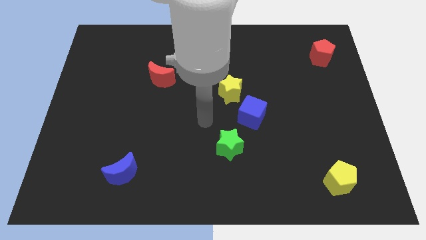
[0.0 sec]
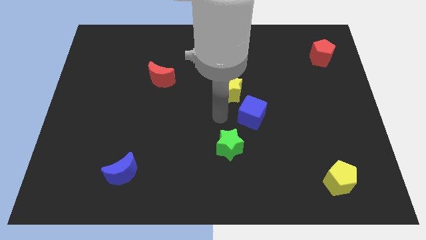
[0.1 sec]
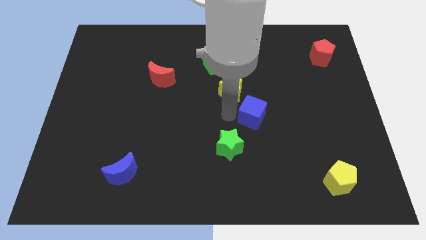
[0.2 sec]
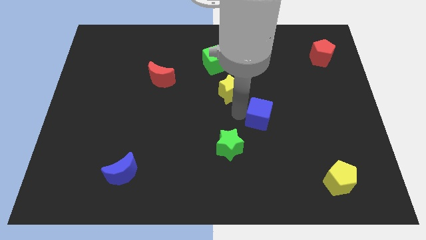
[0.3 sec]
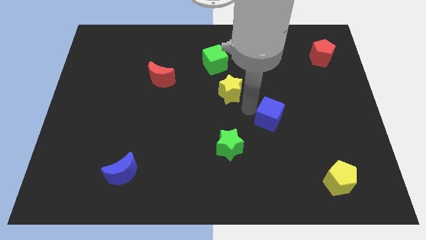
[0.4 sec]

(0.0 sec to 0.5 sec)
move the yellow star away from the blue cube

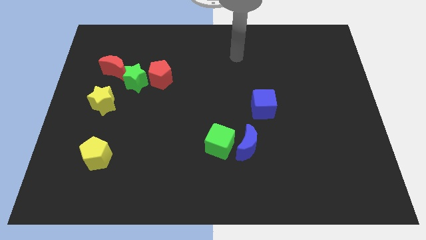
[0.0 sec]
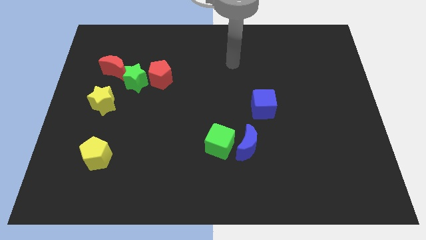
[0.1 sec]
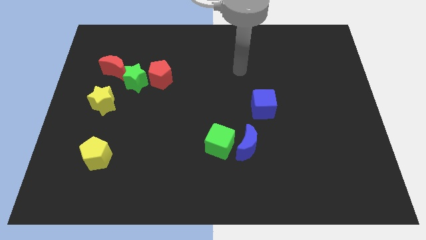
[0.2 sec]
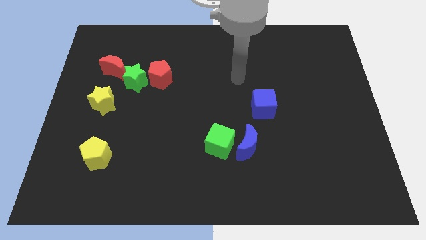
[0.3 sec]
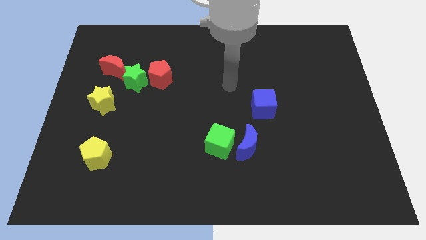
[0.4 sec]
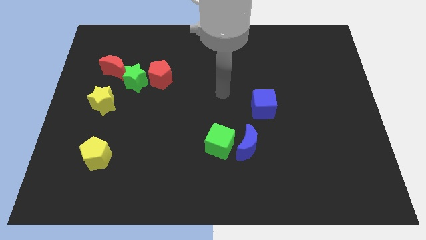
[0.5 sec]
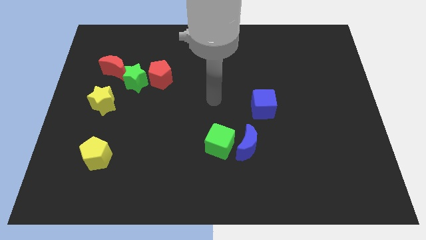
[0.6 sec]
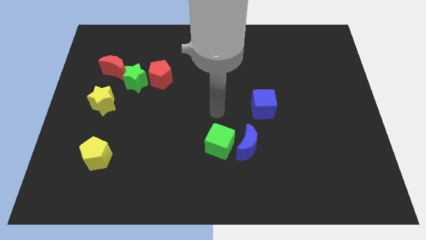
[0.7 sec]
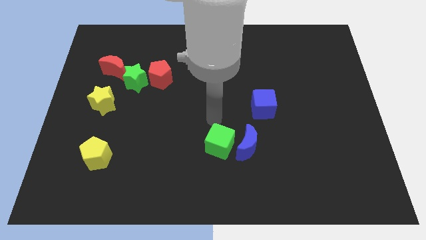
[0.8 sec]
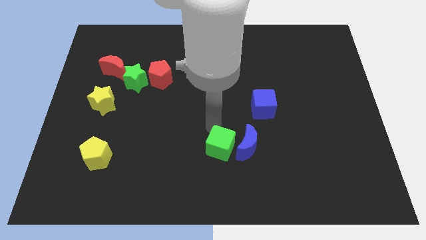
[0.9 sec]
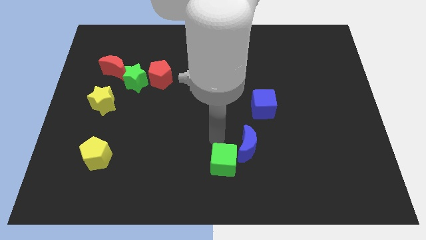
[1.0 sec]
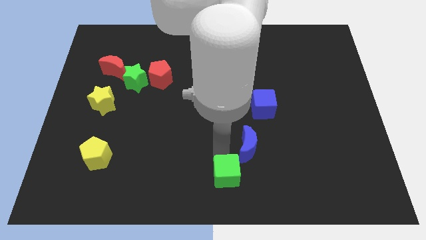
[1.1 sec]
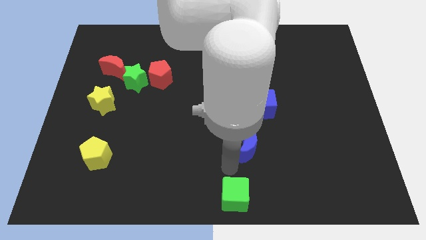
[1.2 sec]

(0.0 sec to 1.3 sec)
separate the blue moon from the green cube

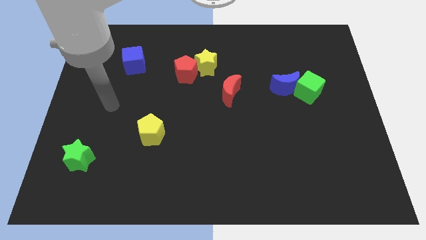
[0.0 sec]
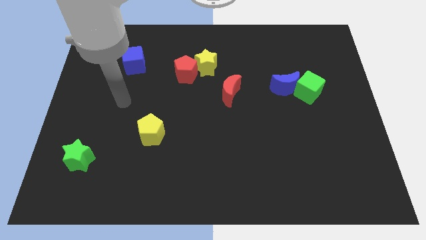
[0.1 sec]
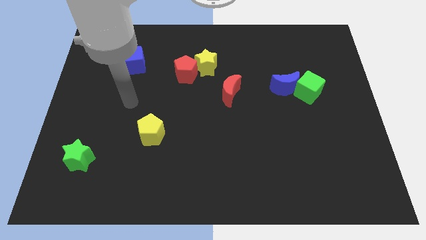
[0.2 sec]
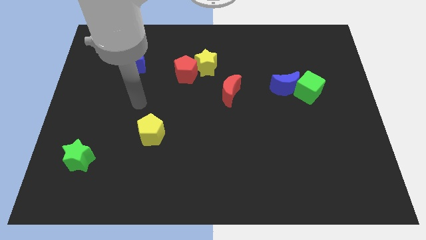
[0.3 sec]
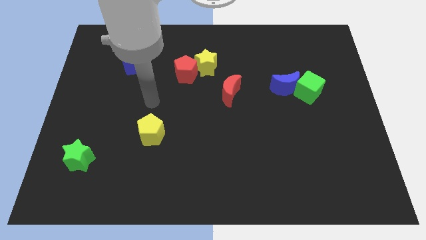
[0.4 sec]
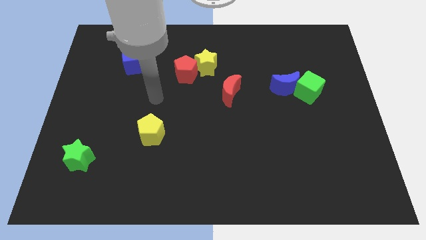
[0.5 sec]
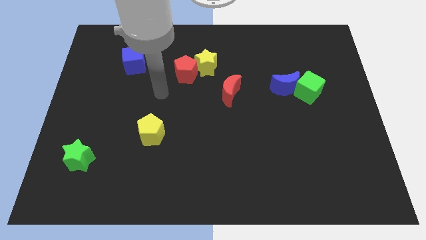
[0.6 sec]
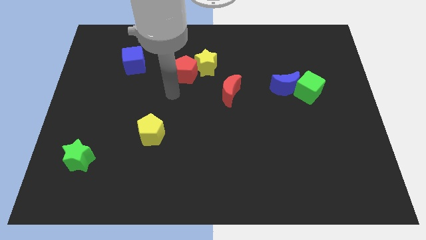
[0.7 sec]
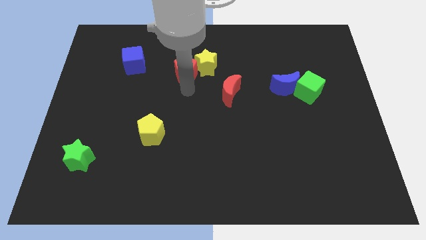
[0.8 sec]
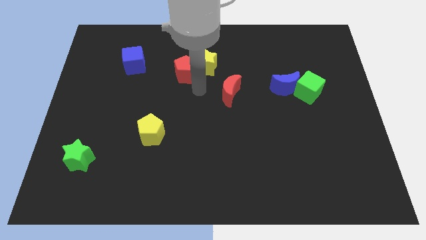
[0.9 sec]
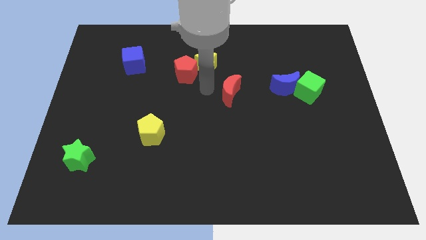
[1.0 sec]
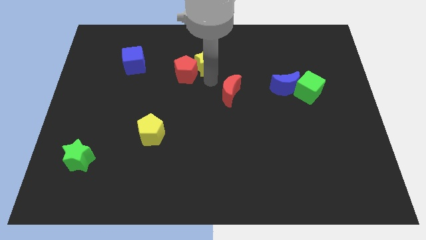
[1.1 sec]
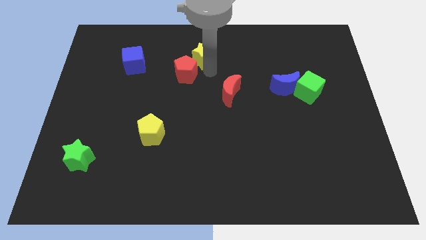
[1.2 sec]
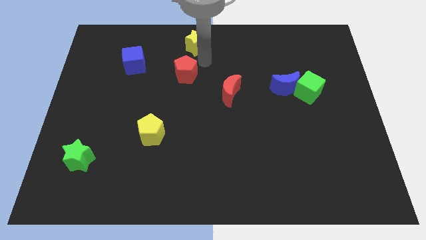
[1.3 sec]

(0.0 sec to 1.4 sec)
pull the red pentagon apart from the yellow star

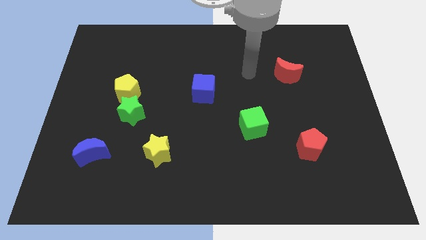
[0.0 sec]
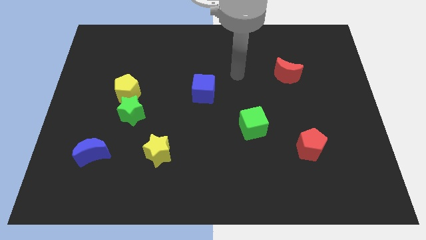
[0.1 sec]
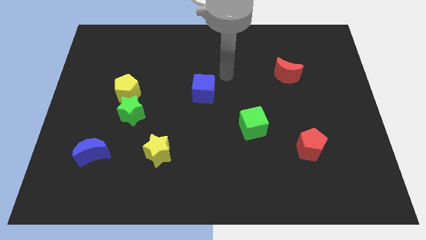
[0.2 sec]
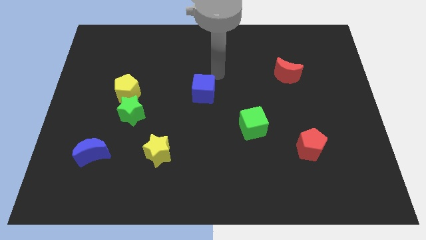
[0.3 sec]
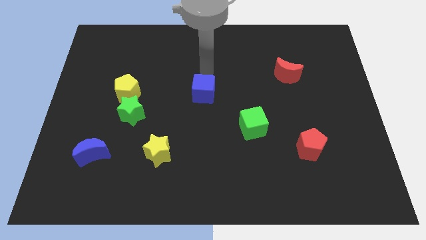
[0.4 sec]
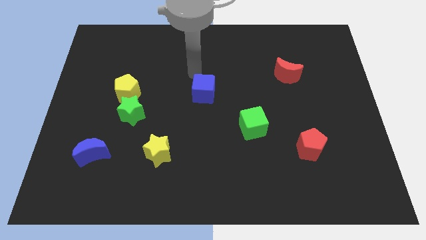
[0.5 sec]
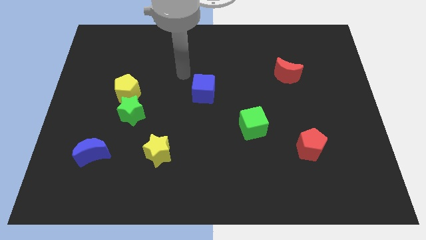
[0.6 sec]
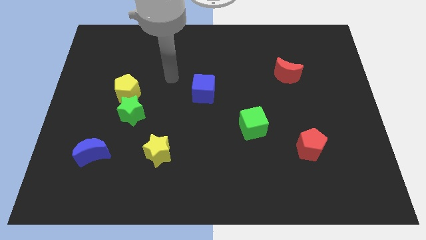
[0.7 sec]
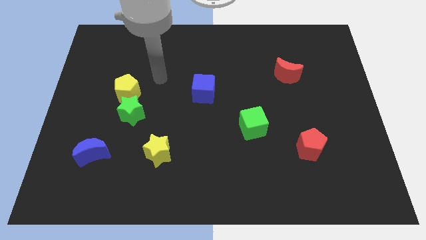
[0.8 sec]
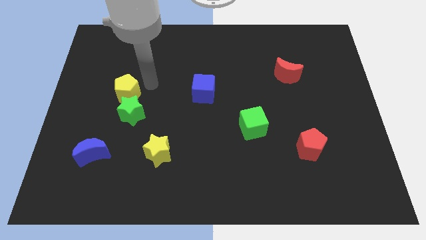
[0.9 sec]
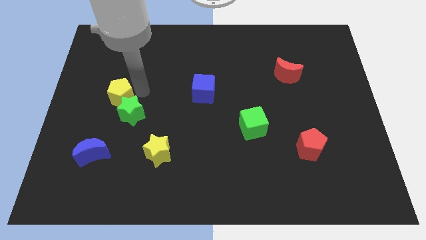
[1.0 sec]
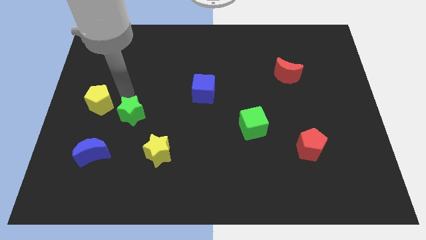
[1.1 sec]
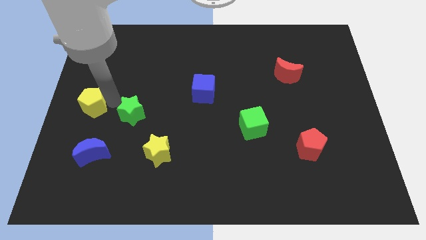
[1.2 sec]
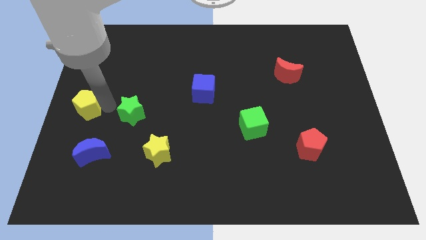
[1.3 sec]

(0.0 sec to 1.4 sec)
pull the green star apart from the yellow pentagon

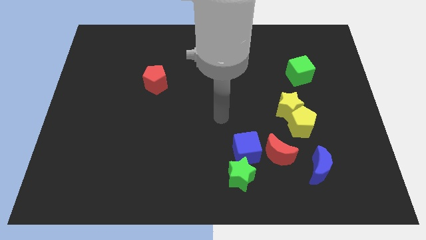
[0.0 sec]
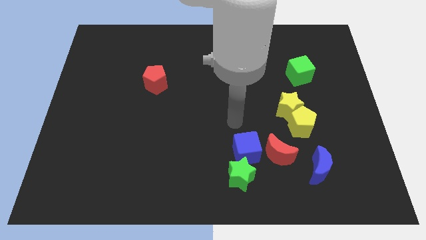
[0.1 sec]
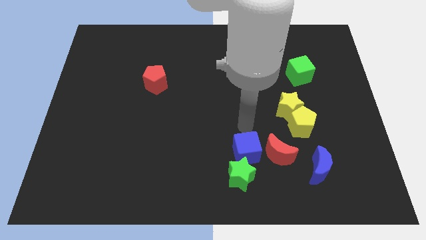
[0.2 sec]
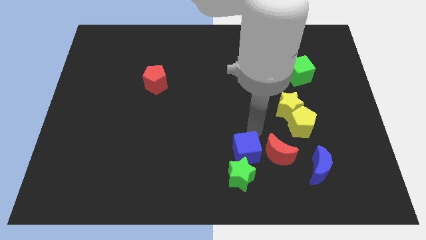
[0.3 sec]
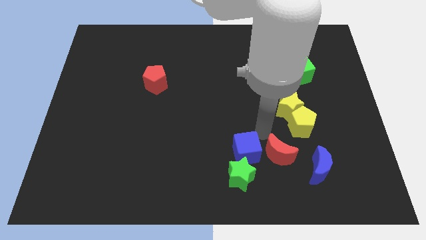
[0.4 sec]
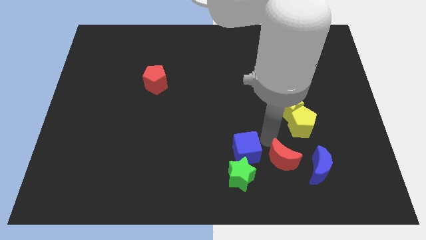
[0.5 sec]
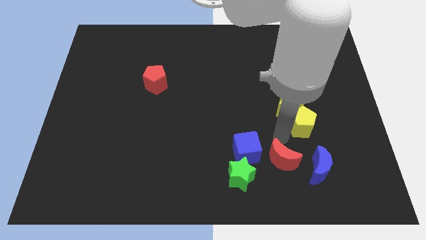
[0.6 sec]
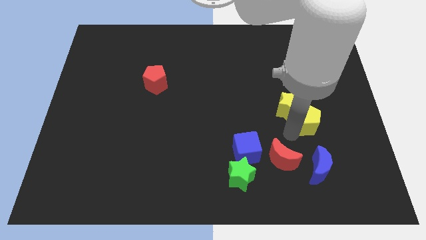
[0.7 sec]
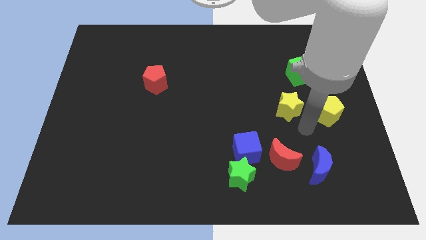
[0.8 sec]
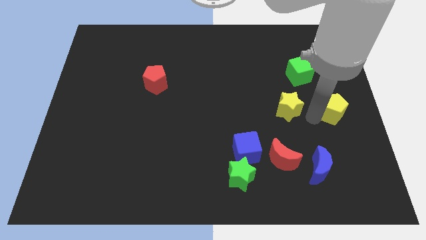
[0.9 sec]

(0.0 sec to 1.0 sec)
separate the yellow star from the yellow pentagon

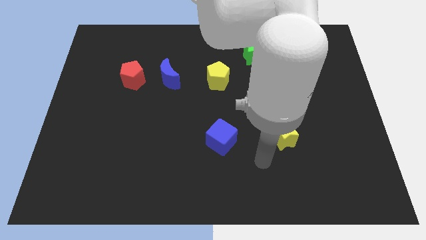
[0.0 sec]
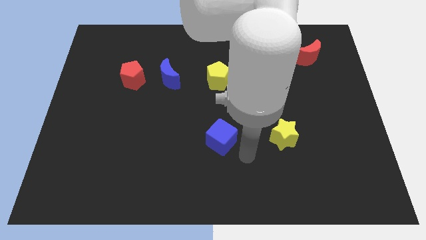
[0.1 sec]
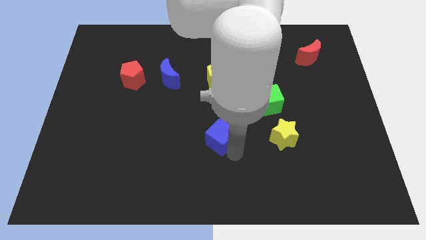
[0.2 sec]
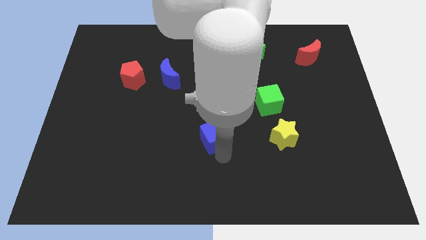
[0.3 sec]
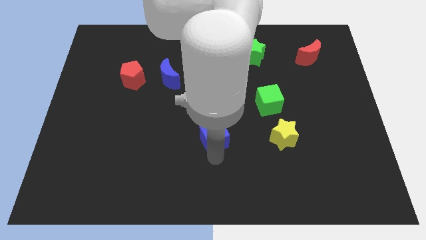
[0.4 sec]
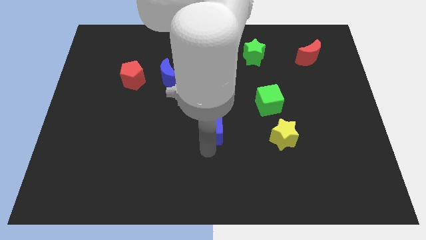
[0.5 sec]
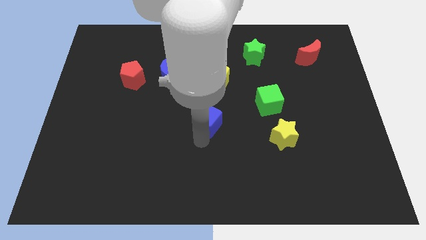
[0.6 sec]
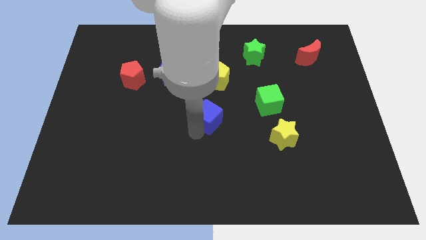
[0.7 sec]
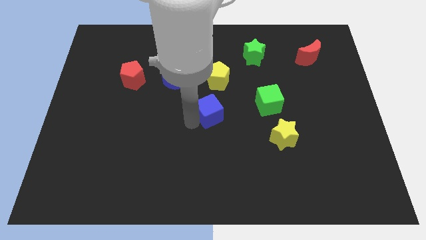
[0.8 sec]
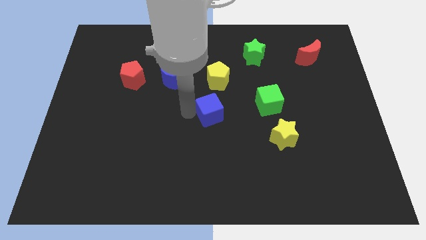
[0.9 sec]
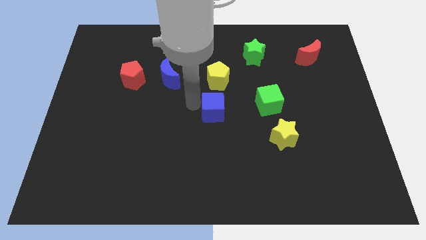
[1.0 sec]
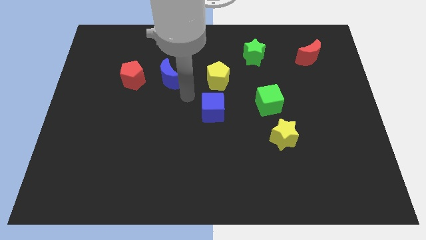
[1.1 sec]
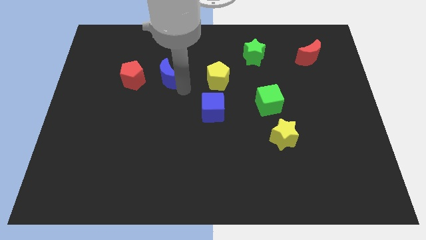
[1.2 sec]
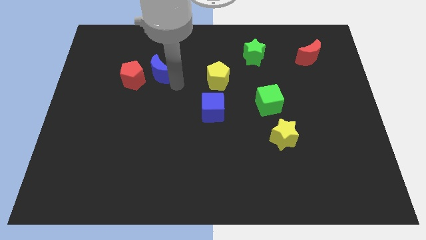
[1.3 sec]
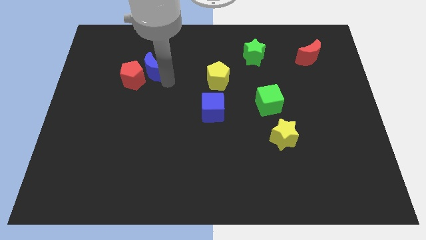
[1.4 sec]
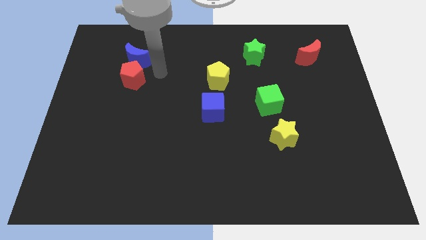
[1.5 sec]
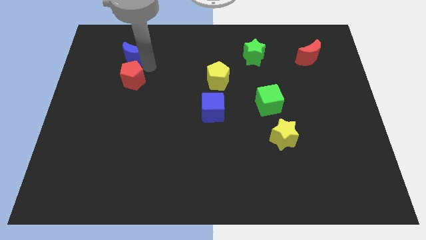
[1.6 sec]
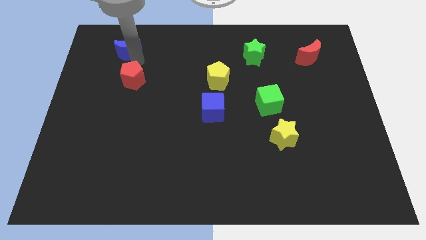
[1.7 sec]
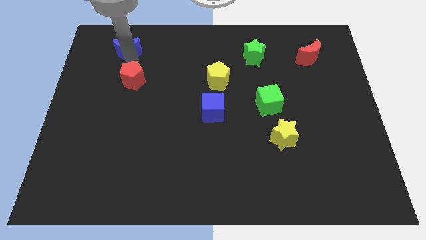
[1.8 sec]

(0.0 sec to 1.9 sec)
separate the red pentagon from the blue moon

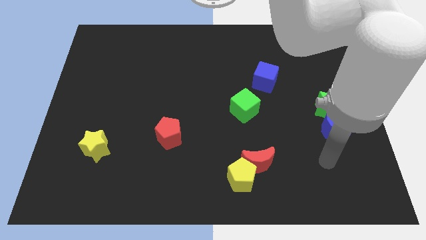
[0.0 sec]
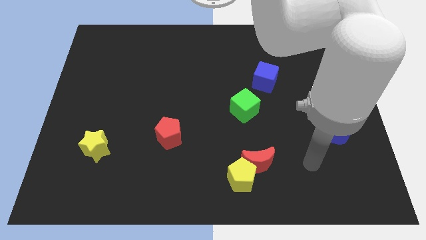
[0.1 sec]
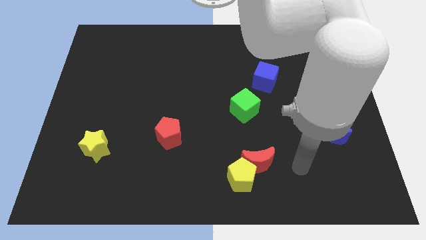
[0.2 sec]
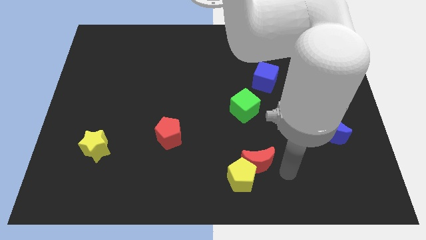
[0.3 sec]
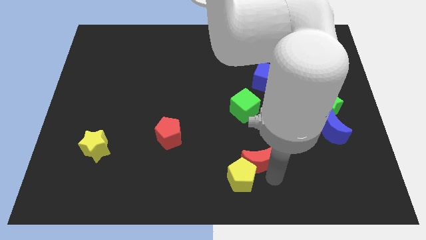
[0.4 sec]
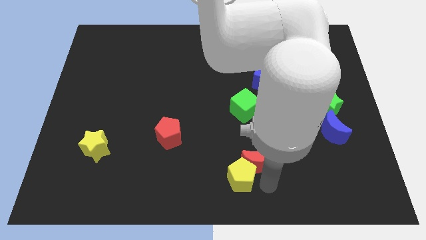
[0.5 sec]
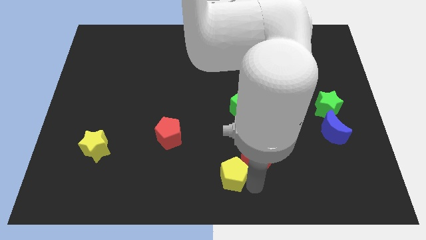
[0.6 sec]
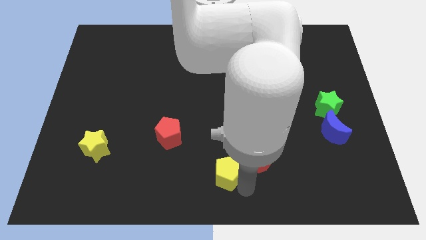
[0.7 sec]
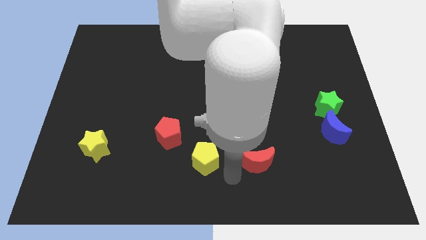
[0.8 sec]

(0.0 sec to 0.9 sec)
move the red moon away from the yellow pentagon

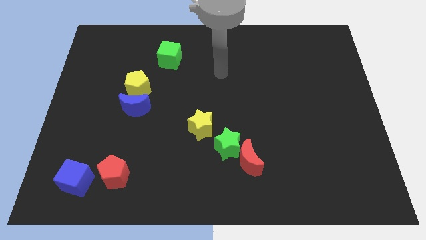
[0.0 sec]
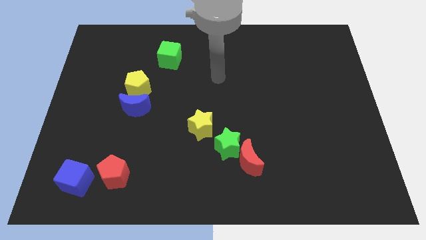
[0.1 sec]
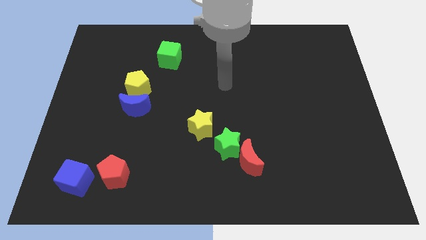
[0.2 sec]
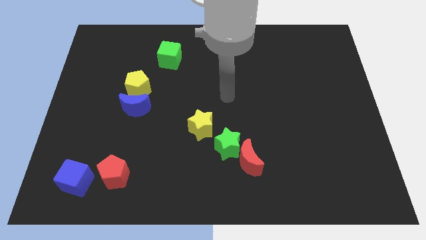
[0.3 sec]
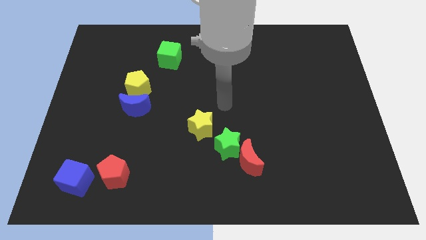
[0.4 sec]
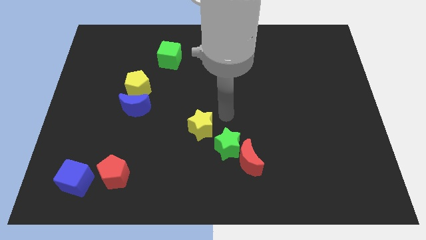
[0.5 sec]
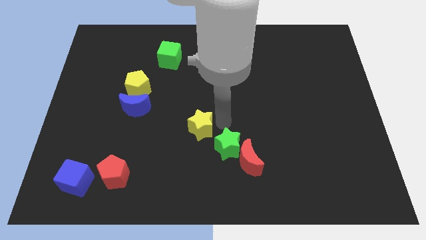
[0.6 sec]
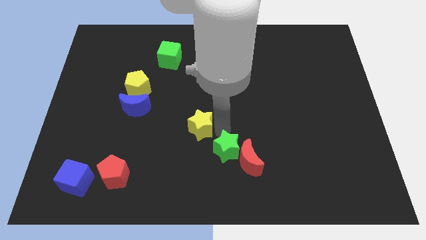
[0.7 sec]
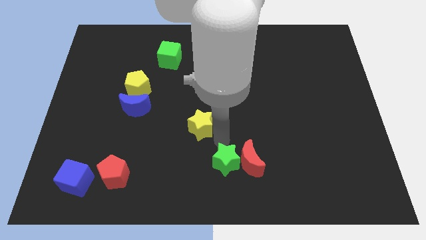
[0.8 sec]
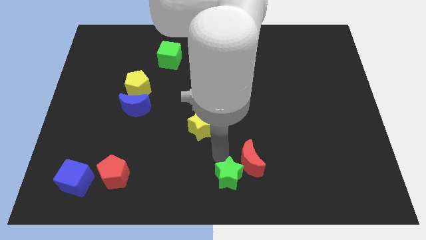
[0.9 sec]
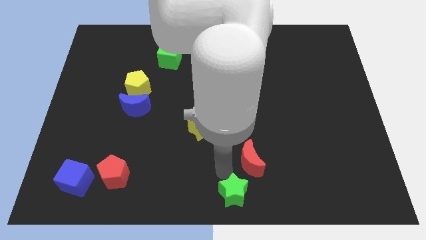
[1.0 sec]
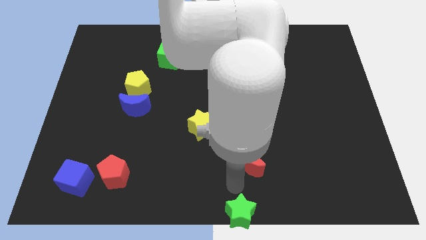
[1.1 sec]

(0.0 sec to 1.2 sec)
pull the red moon apart from the green star
